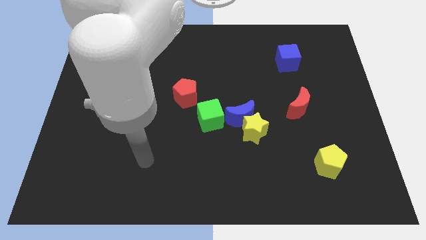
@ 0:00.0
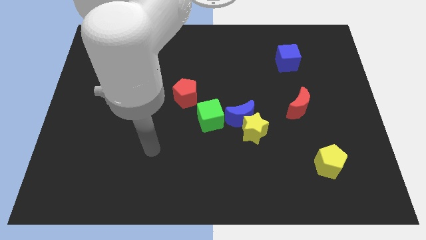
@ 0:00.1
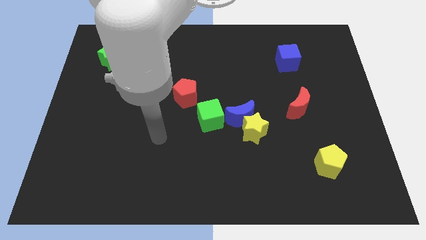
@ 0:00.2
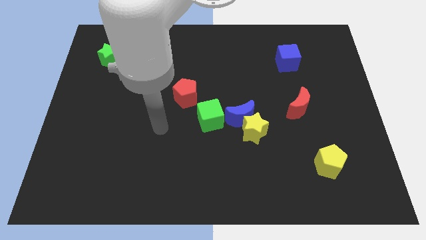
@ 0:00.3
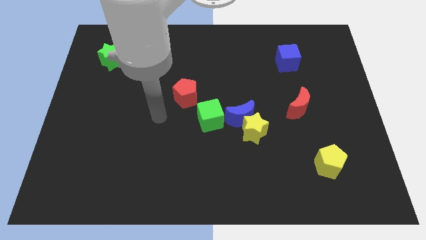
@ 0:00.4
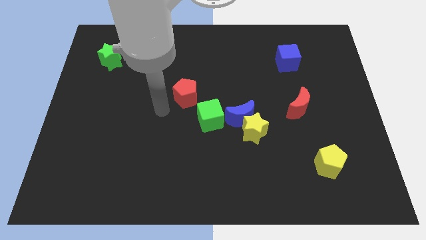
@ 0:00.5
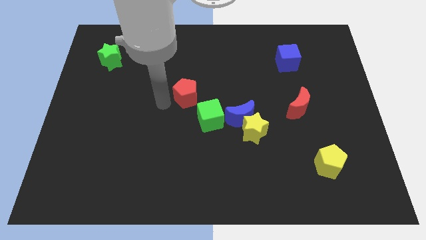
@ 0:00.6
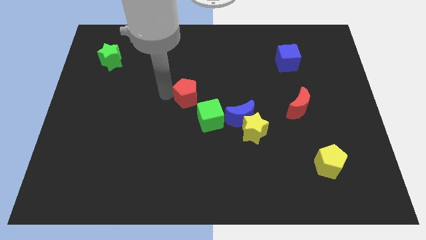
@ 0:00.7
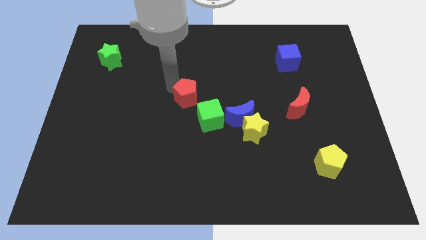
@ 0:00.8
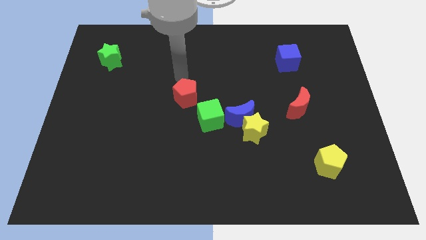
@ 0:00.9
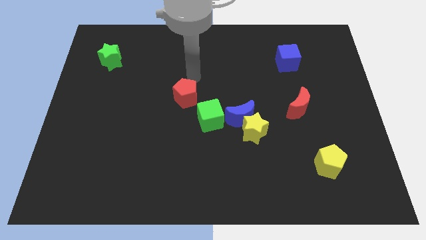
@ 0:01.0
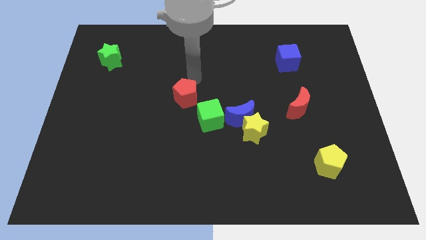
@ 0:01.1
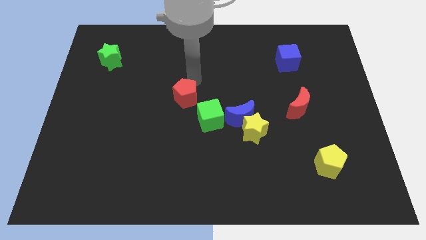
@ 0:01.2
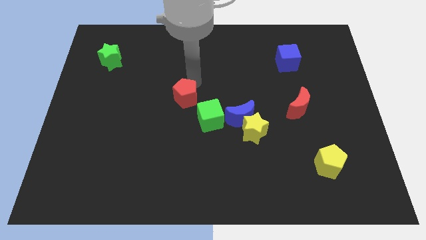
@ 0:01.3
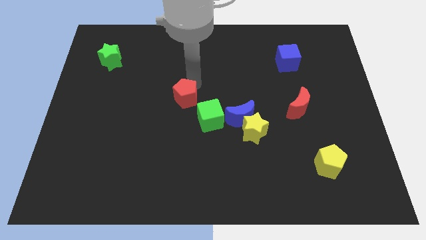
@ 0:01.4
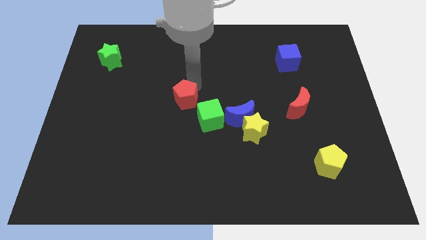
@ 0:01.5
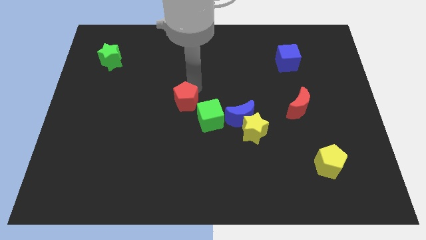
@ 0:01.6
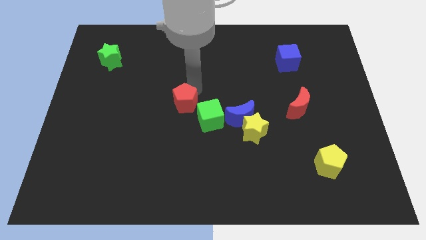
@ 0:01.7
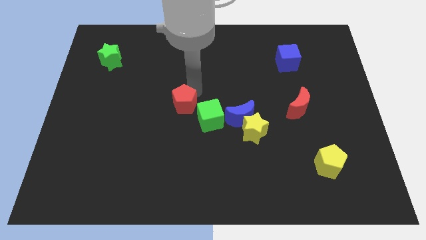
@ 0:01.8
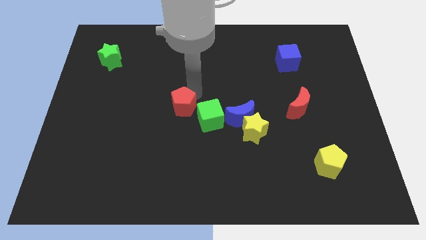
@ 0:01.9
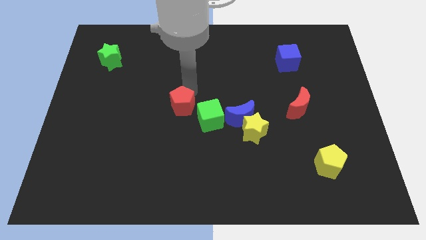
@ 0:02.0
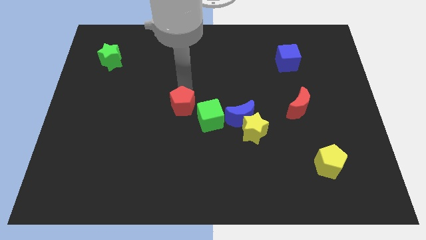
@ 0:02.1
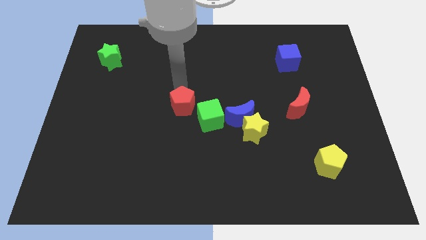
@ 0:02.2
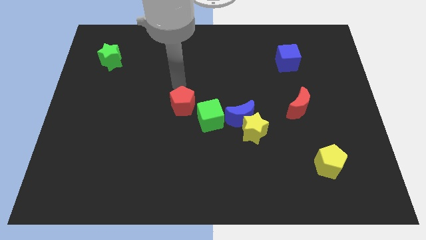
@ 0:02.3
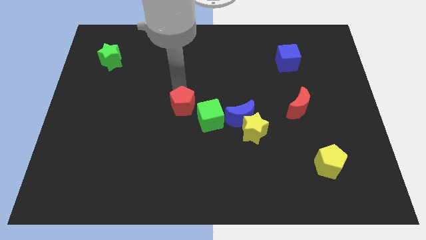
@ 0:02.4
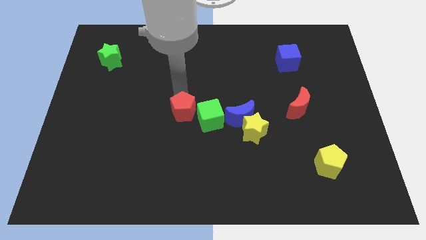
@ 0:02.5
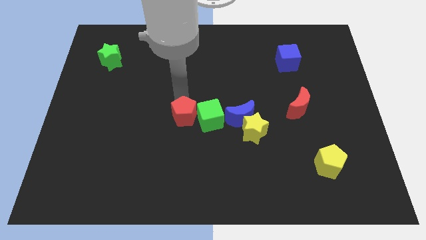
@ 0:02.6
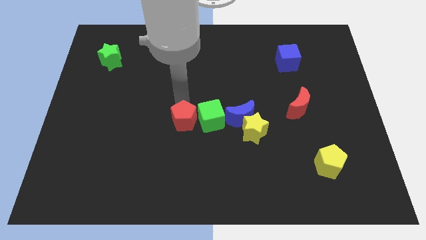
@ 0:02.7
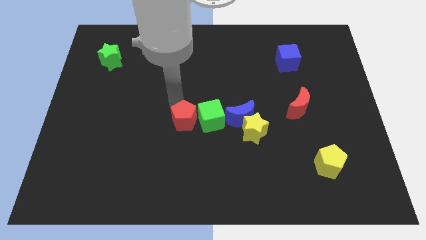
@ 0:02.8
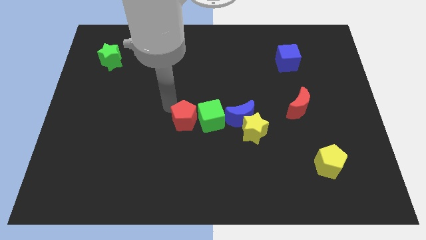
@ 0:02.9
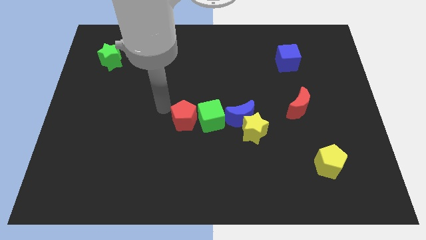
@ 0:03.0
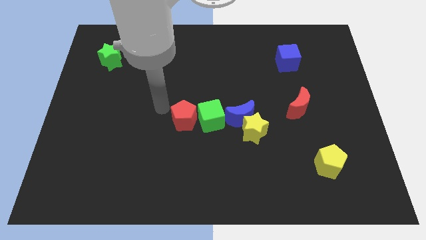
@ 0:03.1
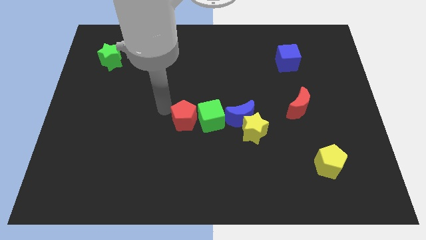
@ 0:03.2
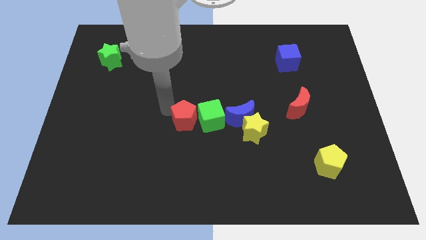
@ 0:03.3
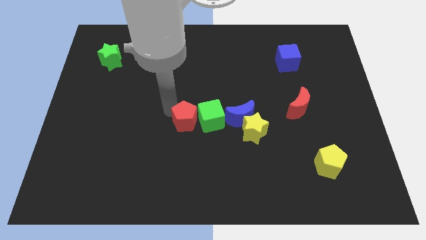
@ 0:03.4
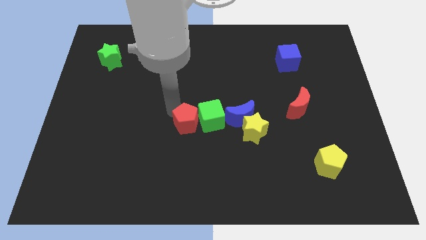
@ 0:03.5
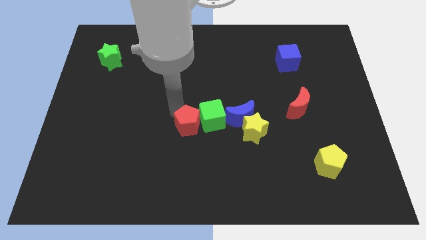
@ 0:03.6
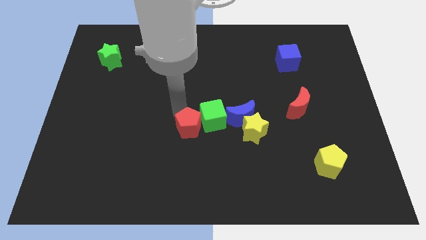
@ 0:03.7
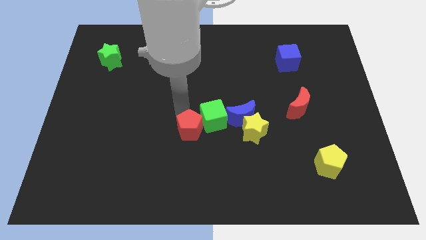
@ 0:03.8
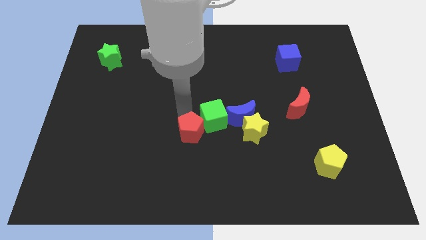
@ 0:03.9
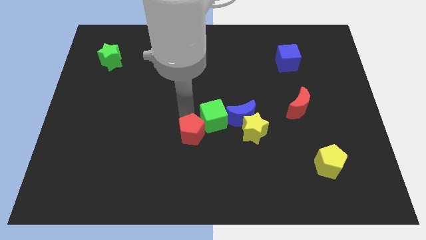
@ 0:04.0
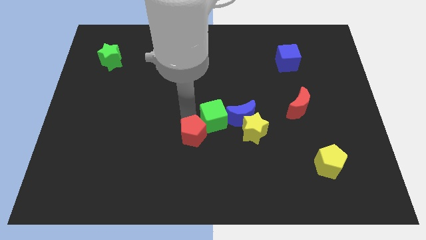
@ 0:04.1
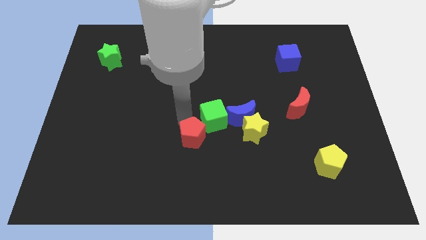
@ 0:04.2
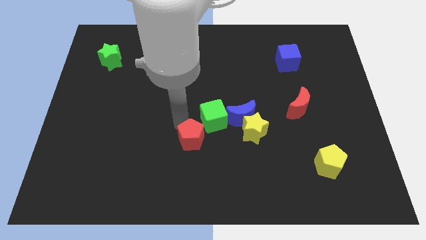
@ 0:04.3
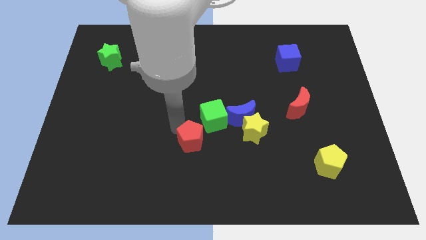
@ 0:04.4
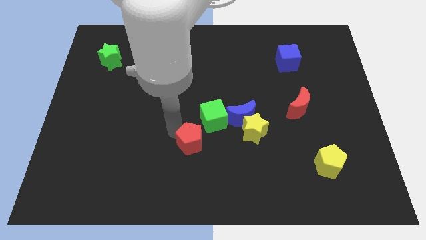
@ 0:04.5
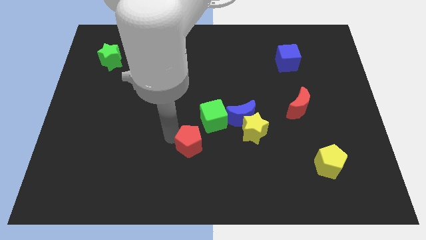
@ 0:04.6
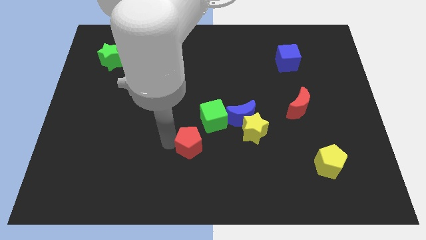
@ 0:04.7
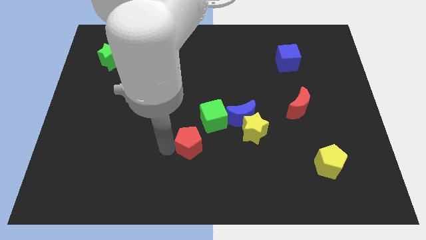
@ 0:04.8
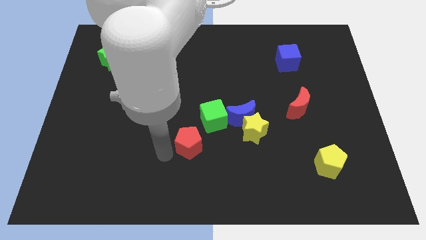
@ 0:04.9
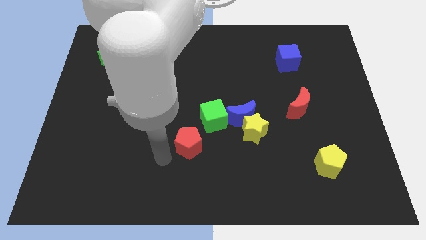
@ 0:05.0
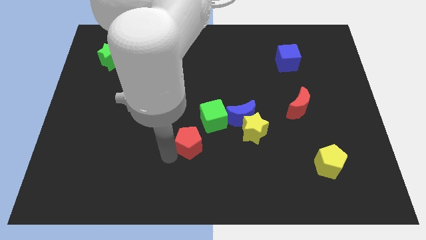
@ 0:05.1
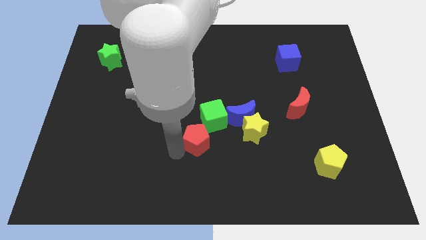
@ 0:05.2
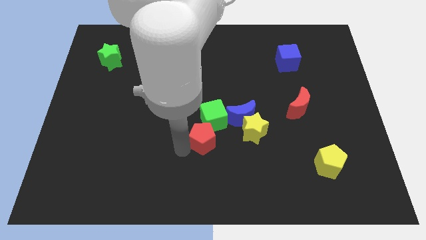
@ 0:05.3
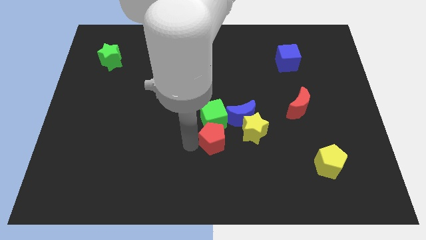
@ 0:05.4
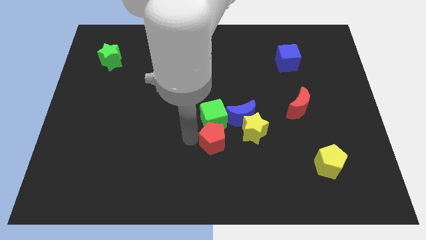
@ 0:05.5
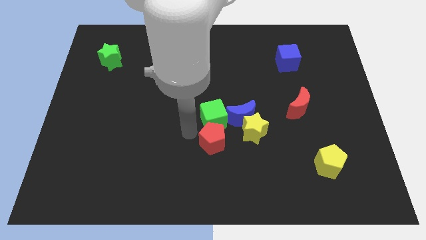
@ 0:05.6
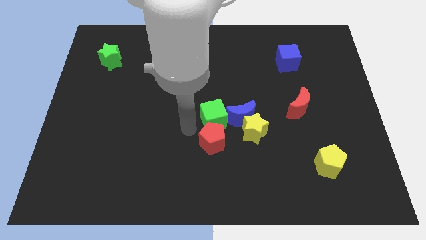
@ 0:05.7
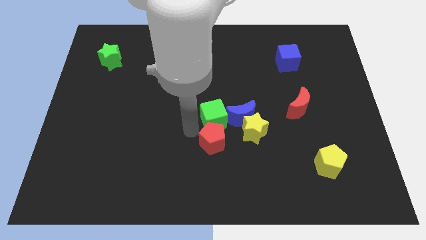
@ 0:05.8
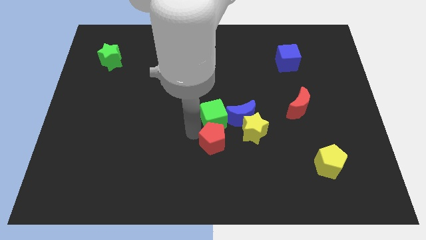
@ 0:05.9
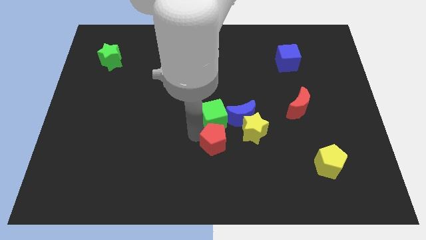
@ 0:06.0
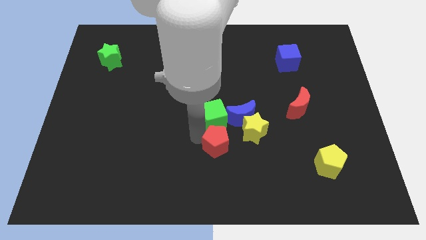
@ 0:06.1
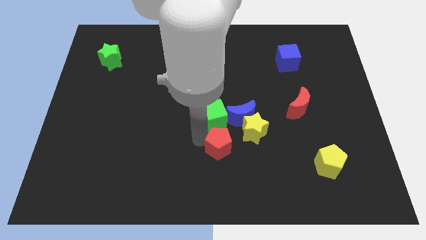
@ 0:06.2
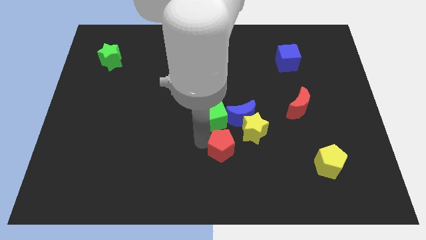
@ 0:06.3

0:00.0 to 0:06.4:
push the red pentagon to the bottom of the blue moon

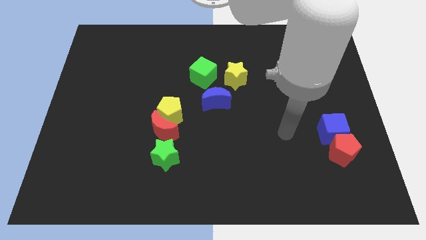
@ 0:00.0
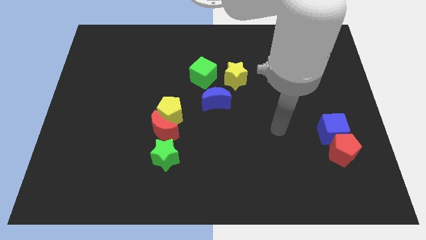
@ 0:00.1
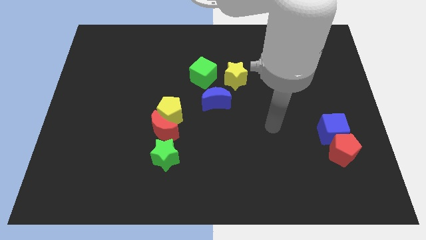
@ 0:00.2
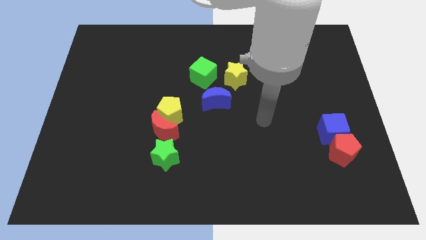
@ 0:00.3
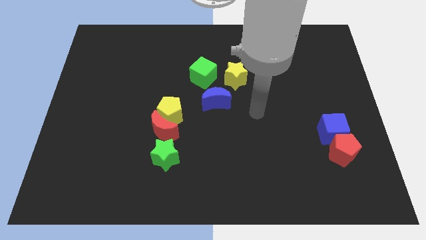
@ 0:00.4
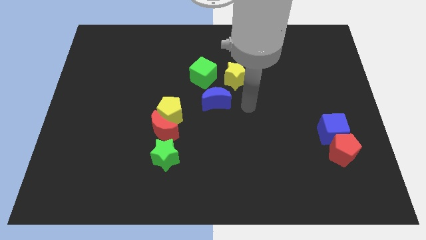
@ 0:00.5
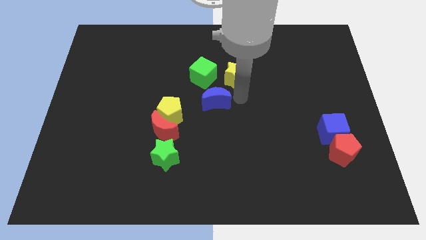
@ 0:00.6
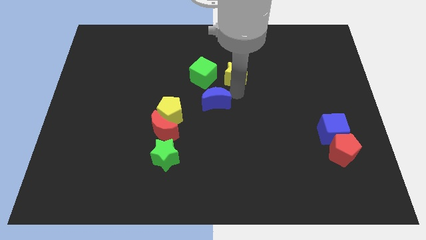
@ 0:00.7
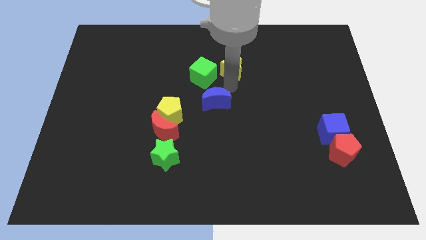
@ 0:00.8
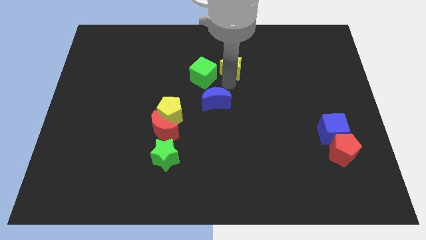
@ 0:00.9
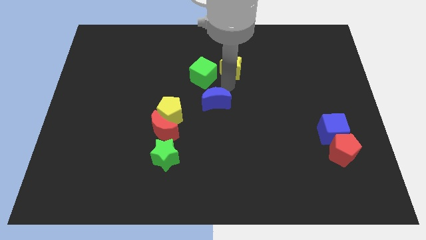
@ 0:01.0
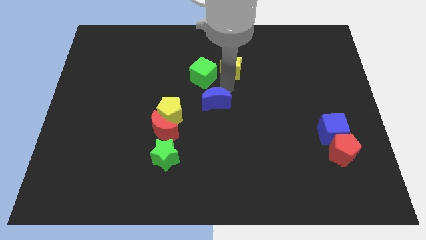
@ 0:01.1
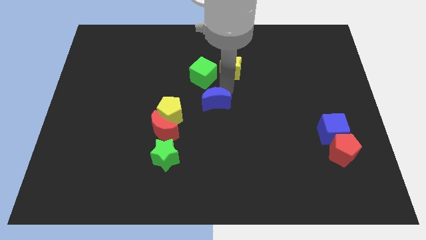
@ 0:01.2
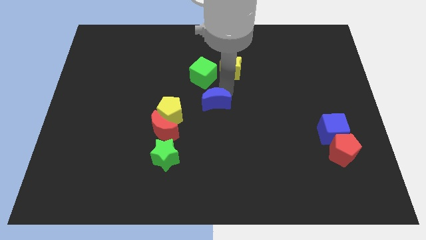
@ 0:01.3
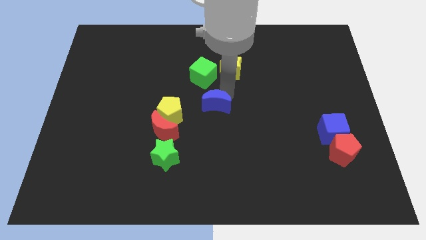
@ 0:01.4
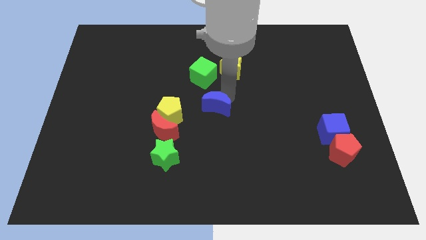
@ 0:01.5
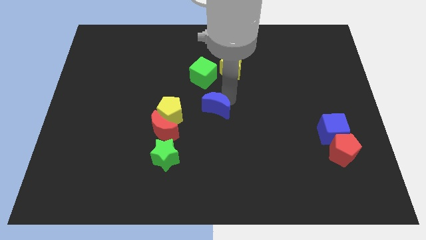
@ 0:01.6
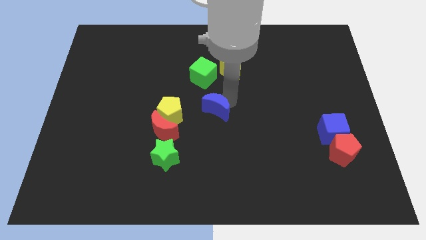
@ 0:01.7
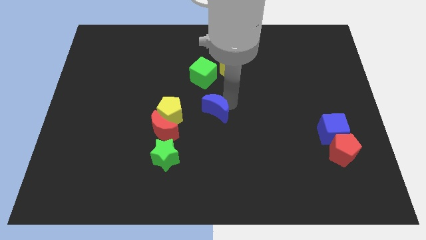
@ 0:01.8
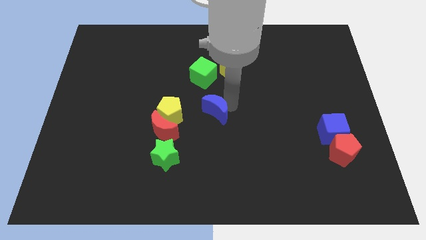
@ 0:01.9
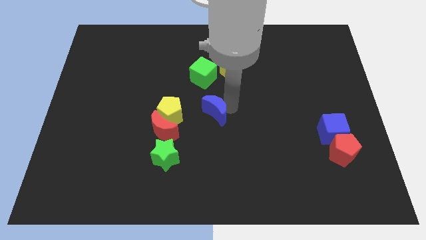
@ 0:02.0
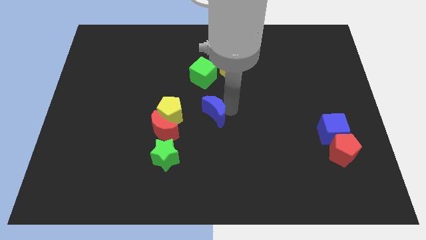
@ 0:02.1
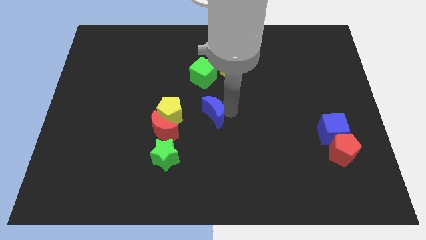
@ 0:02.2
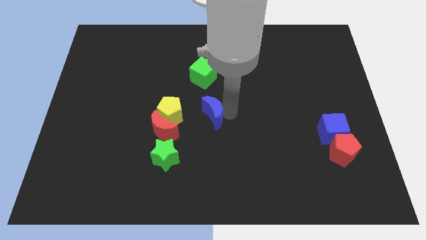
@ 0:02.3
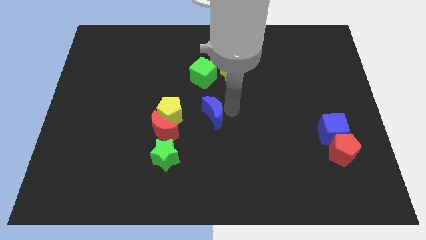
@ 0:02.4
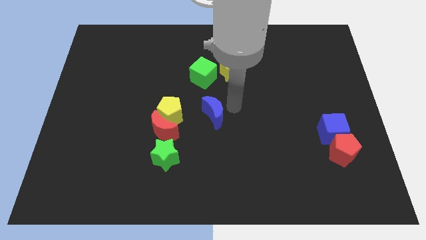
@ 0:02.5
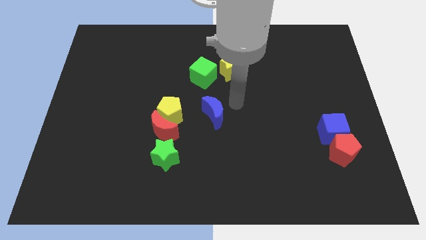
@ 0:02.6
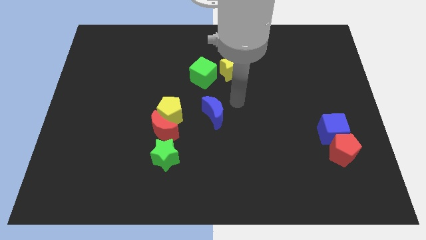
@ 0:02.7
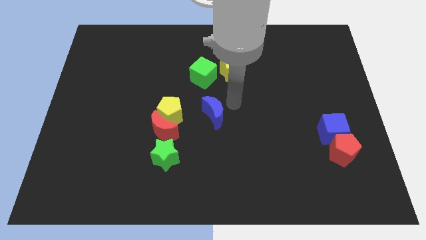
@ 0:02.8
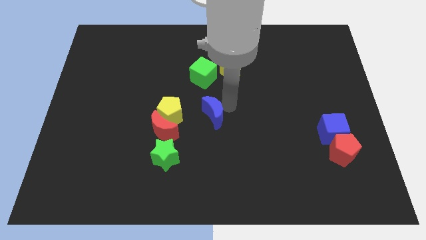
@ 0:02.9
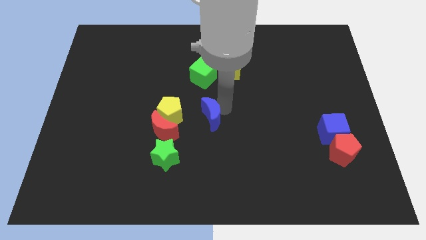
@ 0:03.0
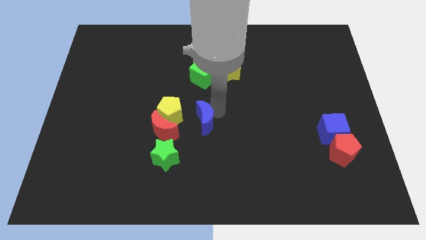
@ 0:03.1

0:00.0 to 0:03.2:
move the blue moon to the bottom right side of the yellow pentagon
